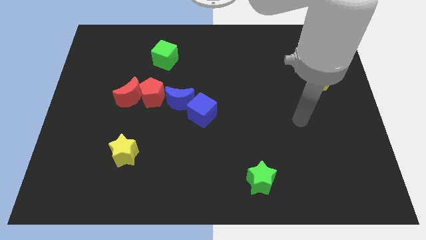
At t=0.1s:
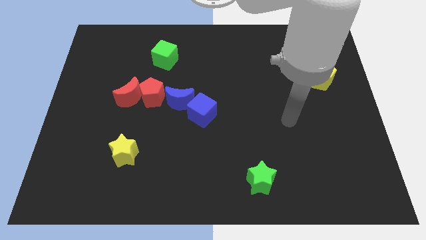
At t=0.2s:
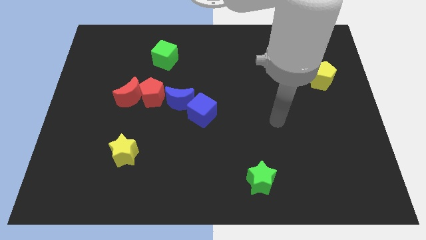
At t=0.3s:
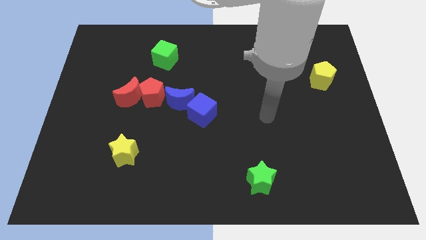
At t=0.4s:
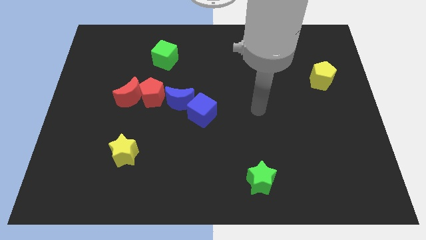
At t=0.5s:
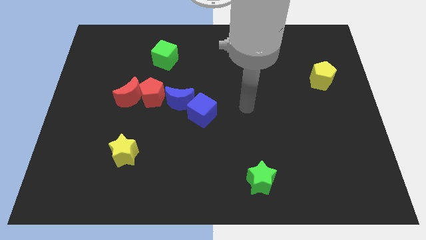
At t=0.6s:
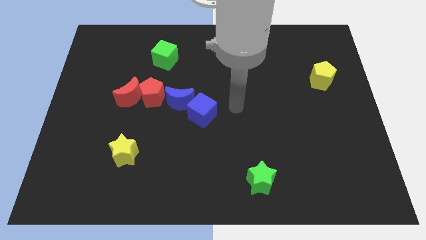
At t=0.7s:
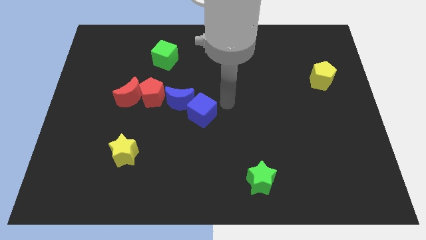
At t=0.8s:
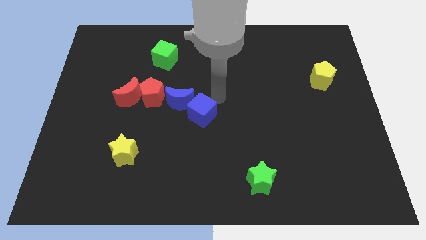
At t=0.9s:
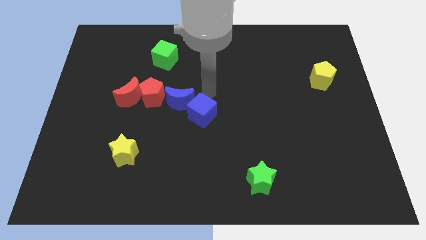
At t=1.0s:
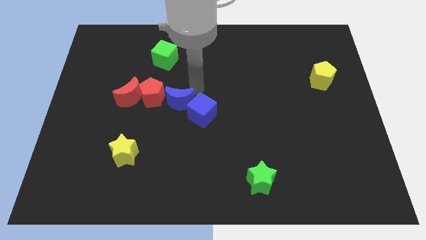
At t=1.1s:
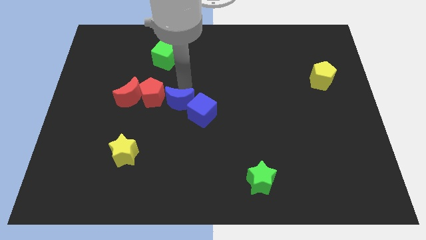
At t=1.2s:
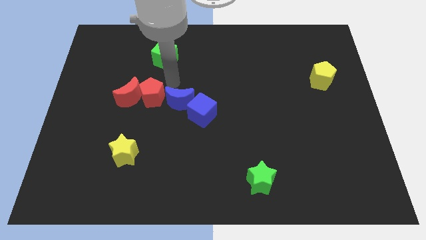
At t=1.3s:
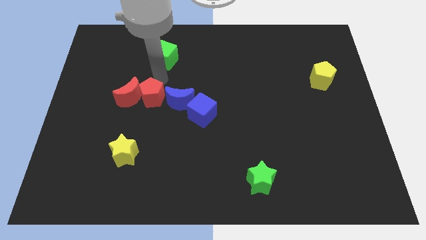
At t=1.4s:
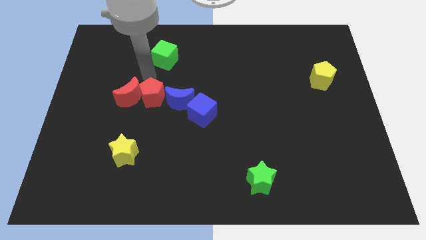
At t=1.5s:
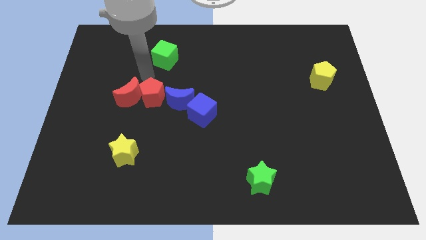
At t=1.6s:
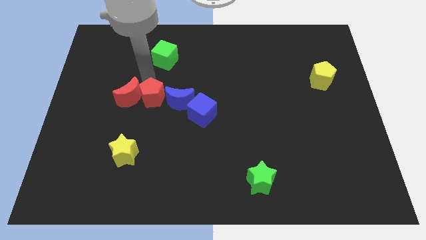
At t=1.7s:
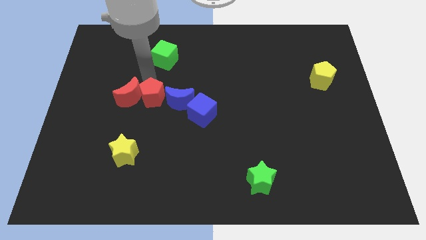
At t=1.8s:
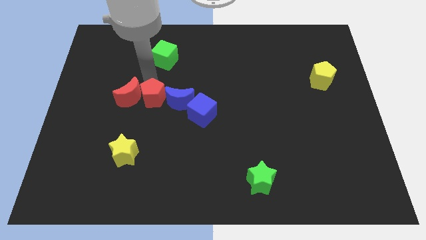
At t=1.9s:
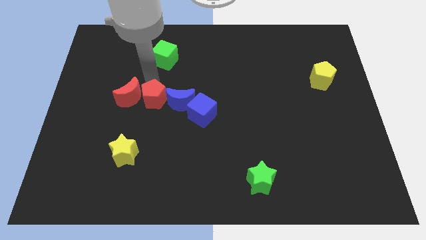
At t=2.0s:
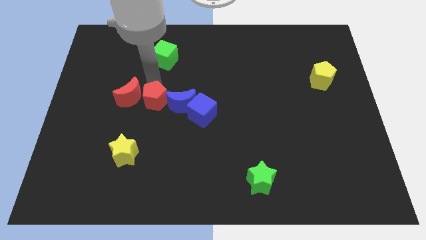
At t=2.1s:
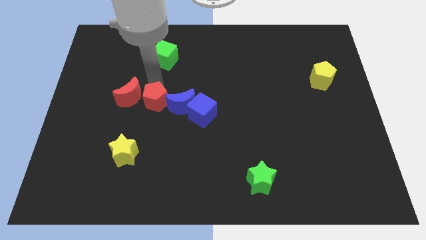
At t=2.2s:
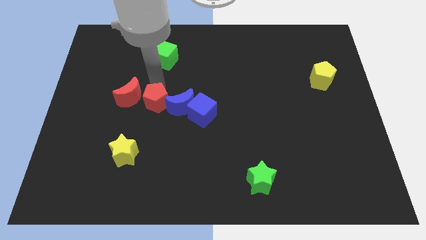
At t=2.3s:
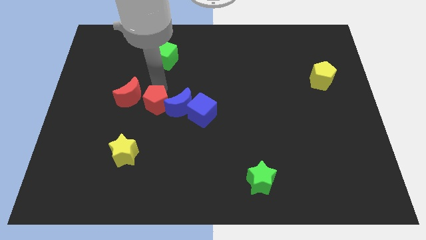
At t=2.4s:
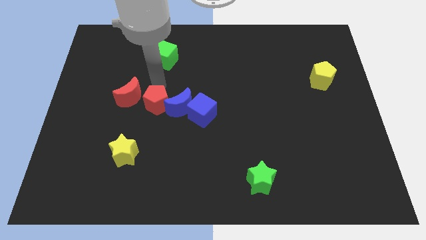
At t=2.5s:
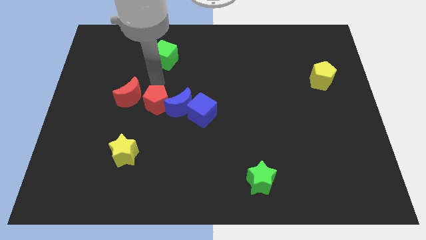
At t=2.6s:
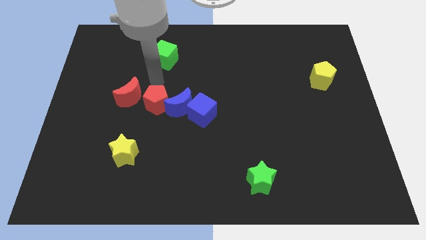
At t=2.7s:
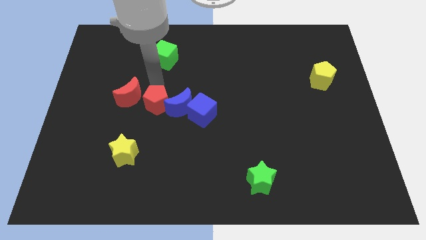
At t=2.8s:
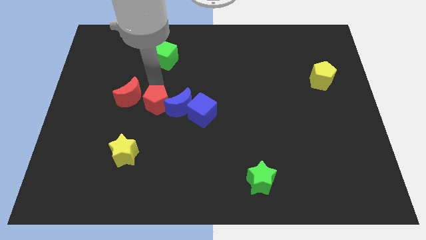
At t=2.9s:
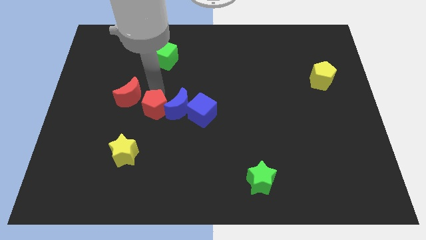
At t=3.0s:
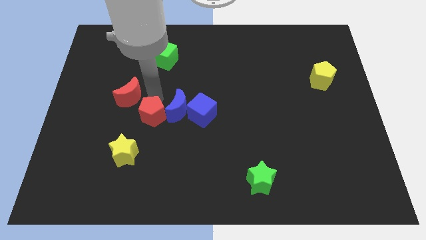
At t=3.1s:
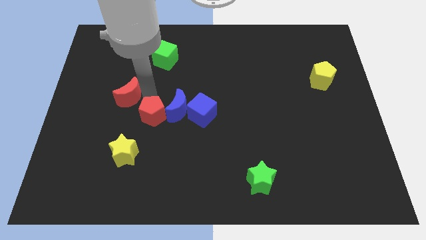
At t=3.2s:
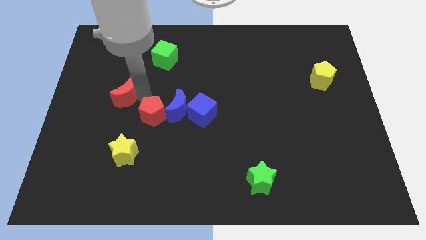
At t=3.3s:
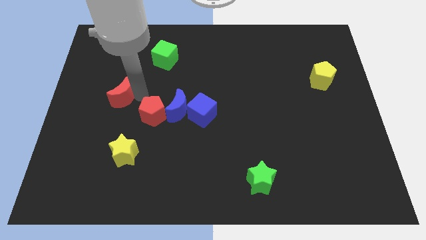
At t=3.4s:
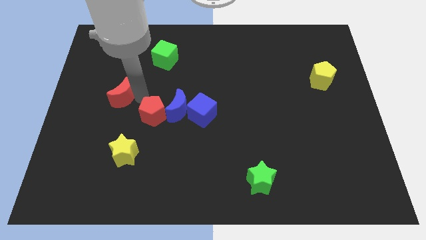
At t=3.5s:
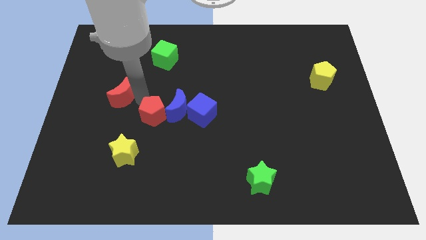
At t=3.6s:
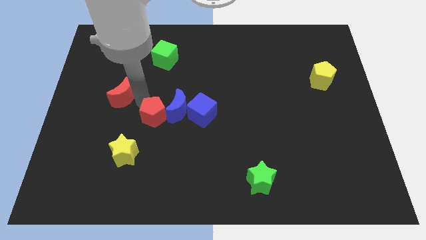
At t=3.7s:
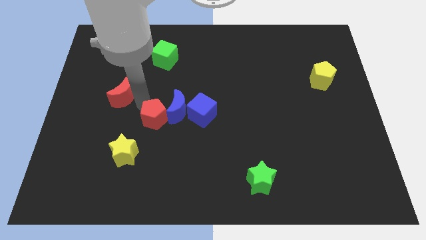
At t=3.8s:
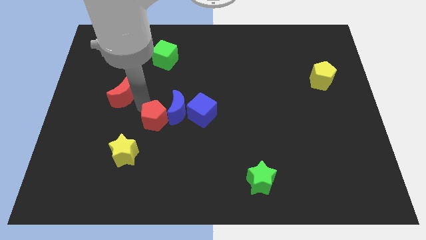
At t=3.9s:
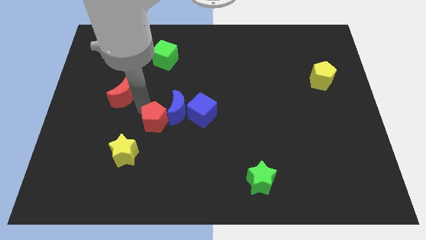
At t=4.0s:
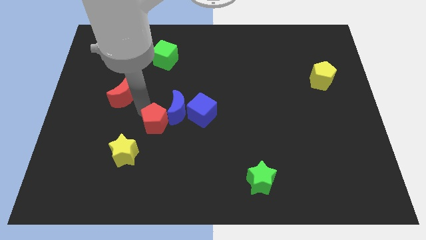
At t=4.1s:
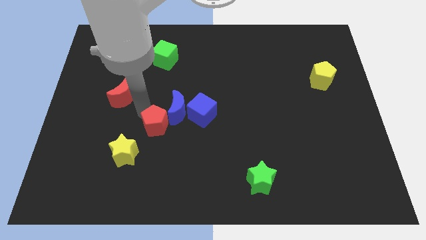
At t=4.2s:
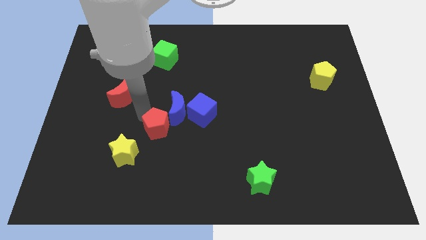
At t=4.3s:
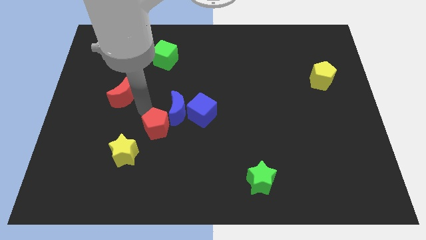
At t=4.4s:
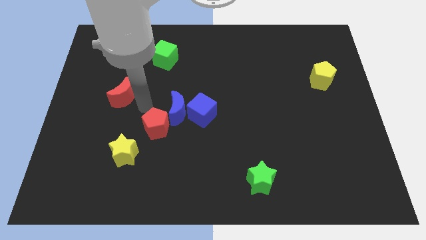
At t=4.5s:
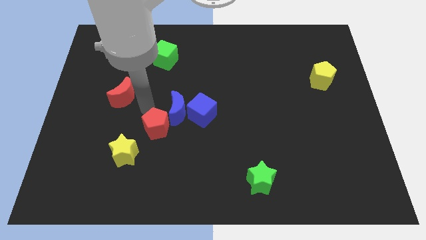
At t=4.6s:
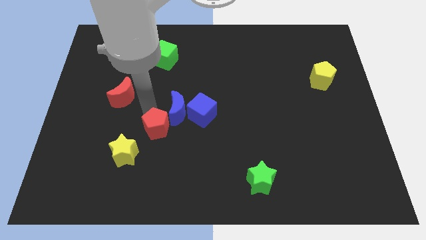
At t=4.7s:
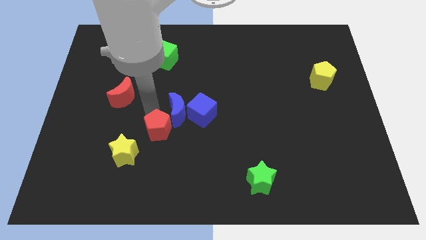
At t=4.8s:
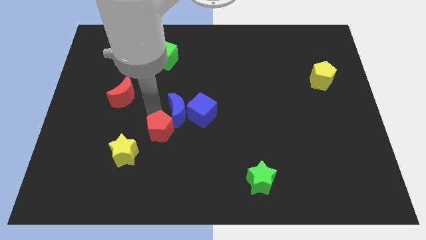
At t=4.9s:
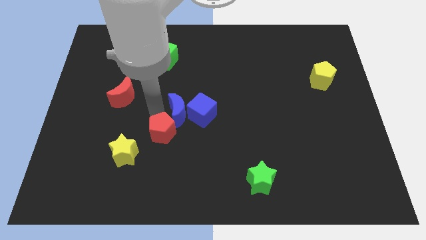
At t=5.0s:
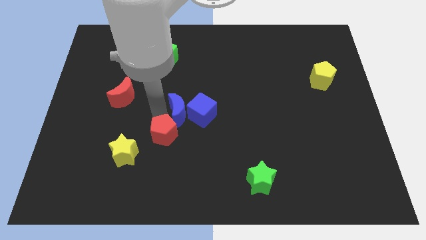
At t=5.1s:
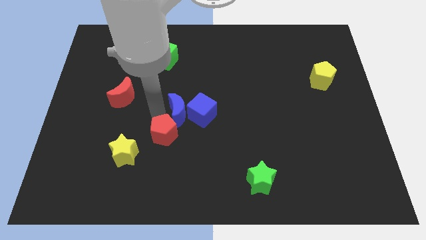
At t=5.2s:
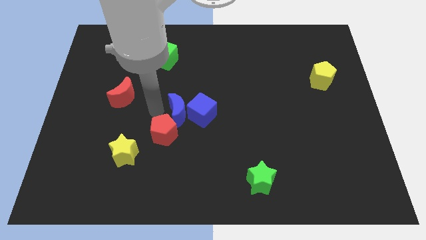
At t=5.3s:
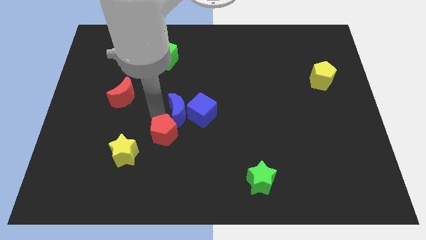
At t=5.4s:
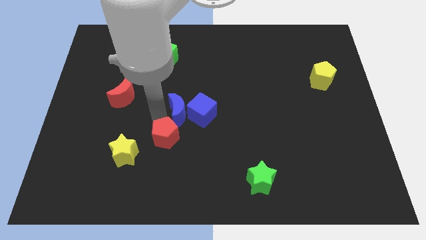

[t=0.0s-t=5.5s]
put the red pentagon just right of the yellow star

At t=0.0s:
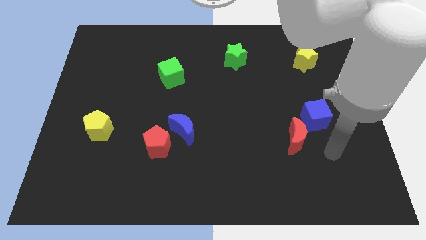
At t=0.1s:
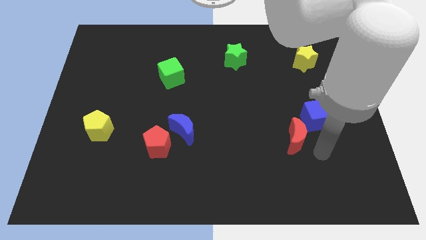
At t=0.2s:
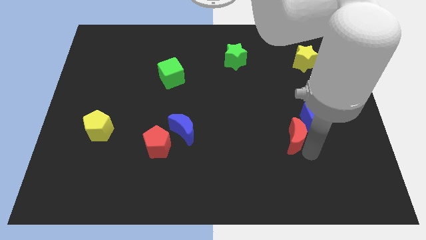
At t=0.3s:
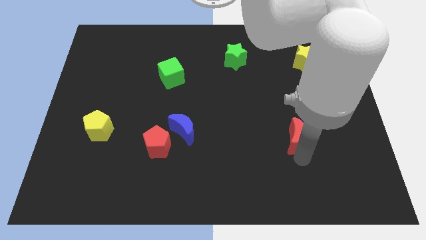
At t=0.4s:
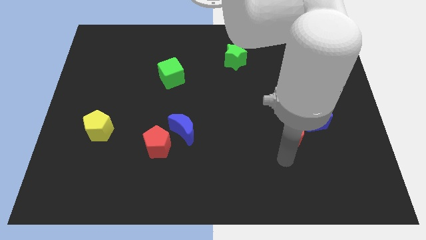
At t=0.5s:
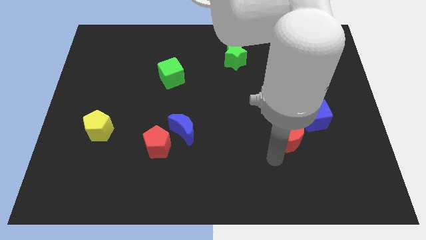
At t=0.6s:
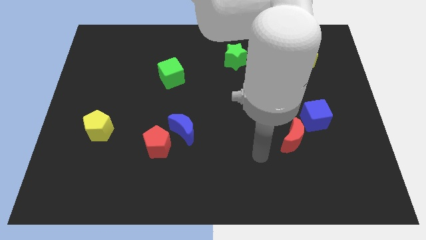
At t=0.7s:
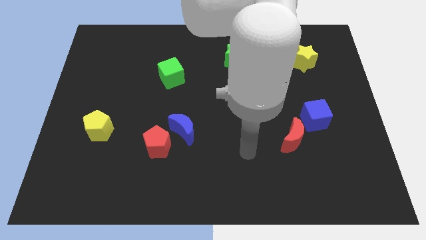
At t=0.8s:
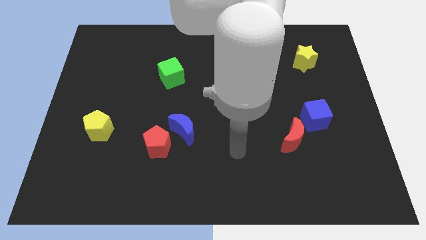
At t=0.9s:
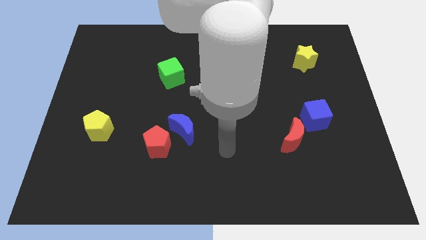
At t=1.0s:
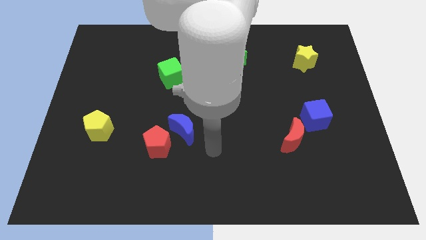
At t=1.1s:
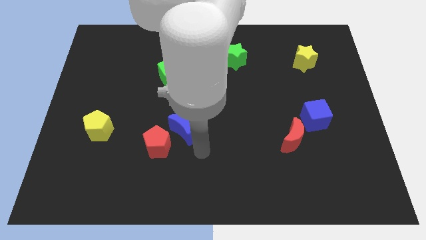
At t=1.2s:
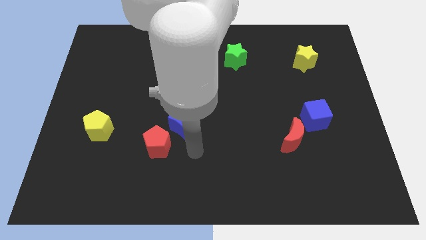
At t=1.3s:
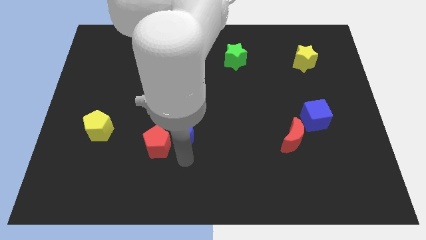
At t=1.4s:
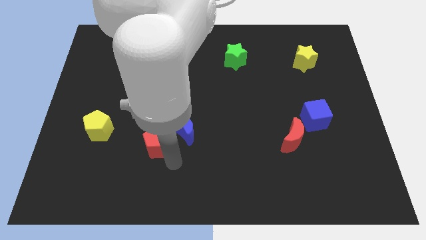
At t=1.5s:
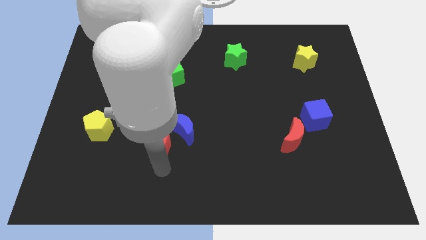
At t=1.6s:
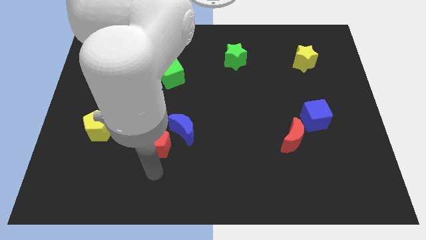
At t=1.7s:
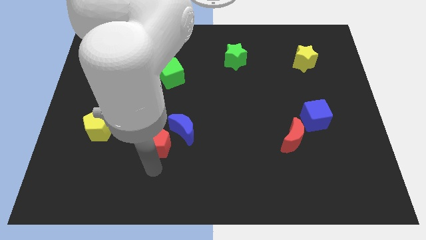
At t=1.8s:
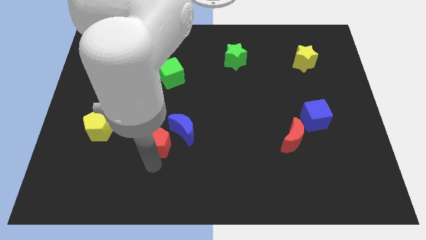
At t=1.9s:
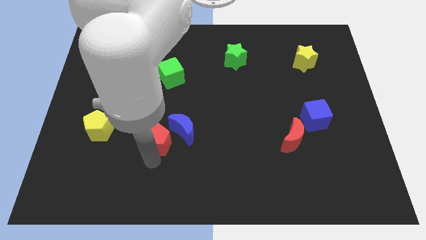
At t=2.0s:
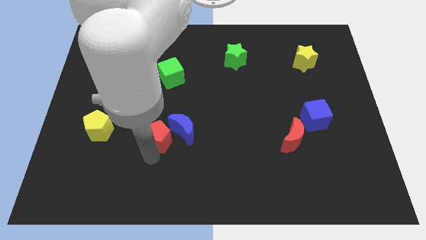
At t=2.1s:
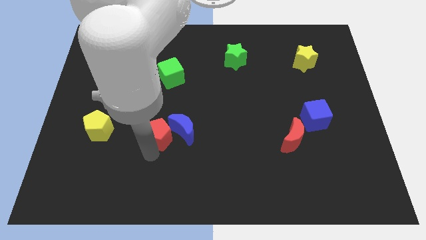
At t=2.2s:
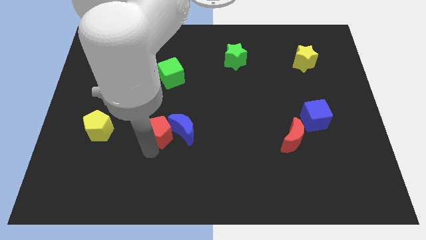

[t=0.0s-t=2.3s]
slide the red pentagon to the top left of the blue moon
